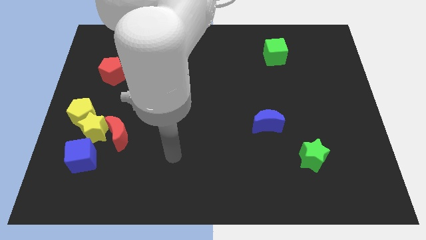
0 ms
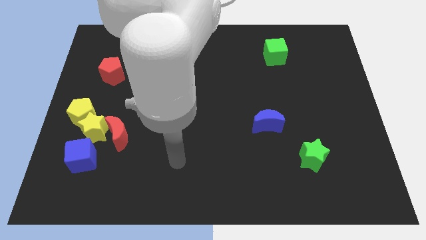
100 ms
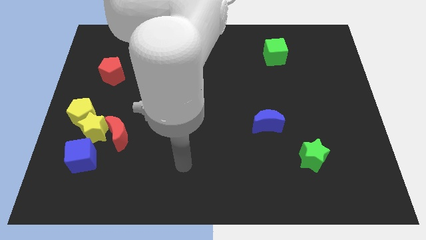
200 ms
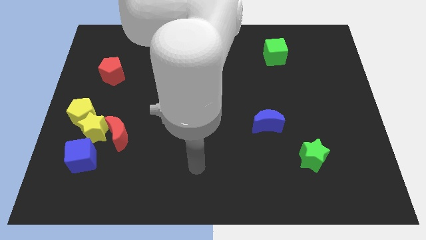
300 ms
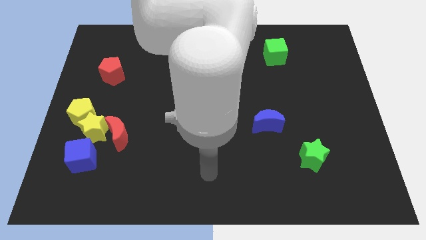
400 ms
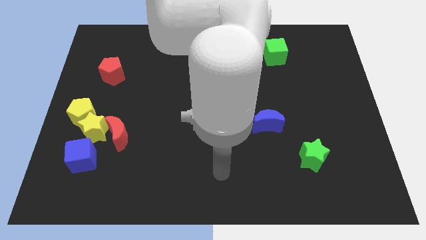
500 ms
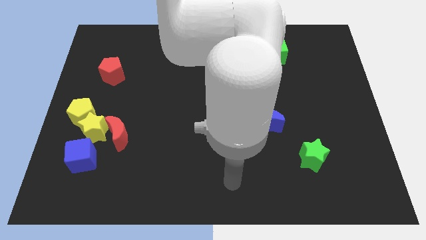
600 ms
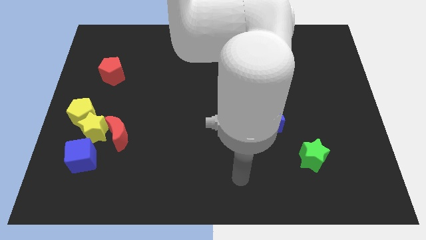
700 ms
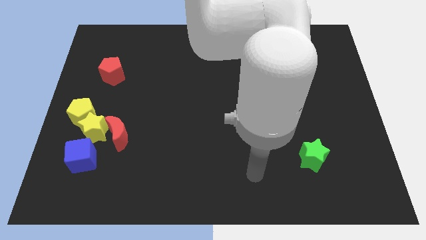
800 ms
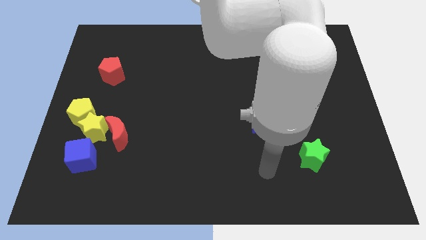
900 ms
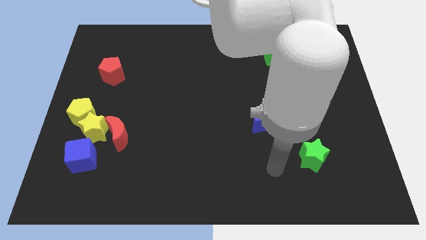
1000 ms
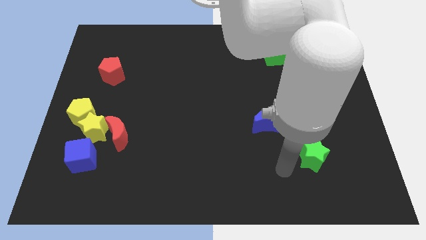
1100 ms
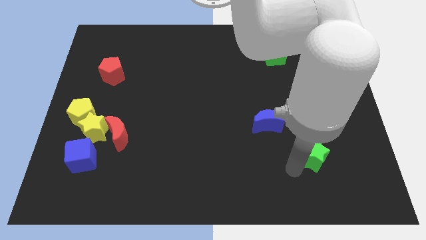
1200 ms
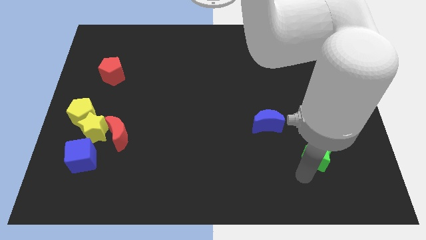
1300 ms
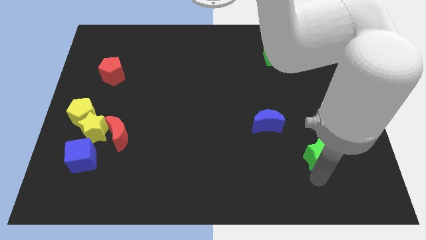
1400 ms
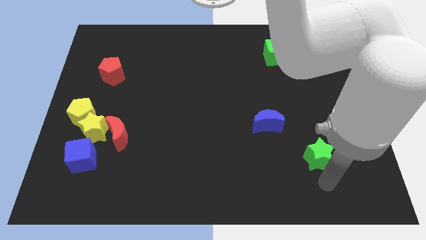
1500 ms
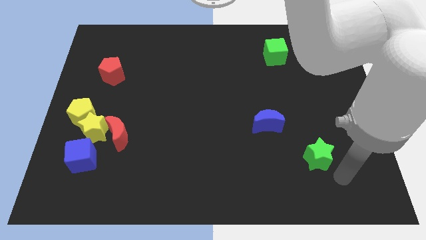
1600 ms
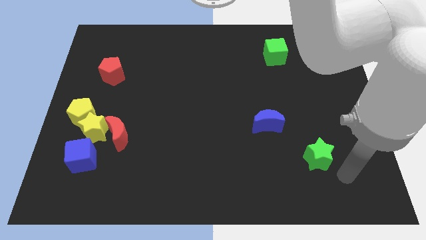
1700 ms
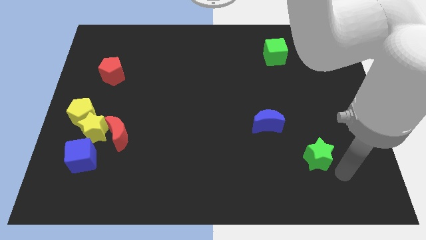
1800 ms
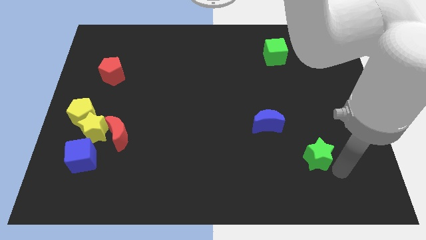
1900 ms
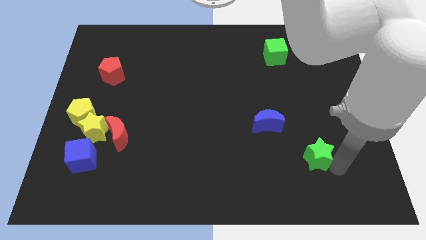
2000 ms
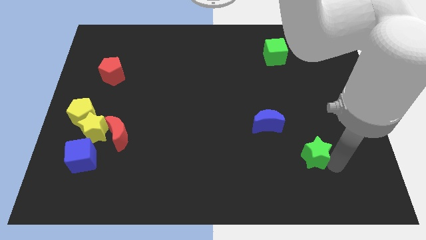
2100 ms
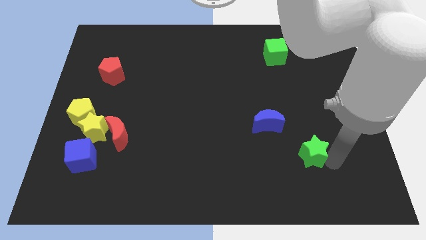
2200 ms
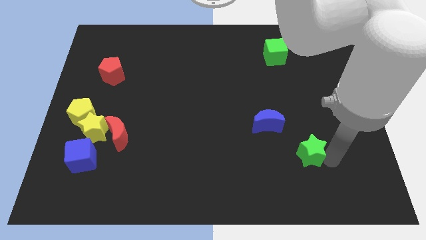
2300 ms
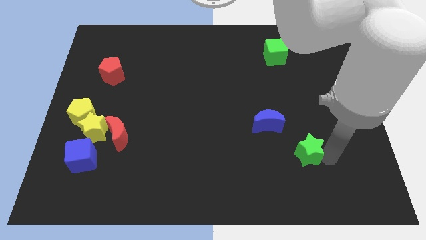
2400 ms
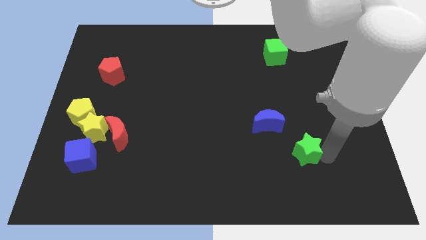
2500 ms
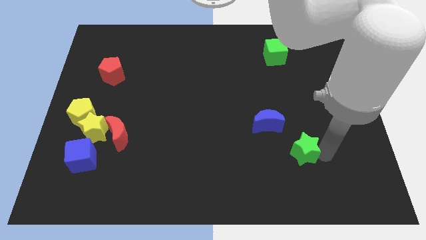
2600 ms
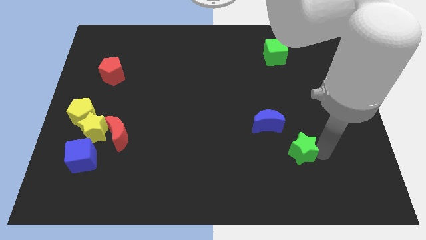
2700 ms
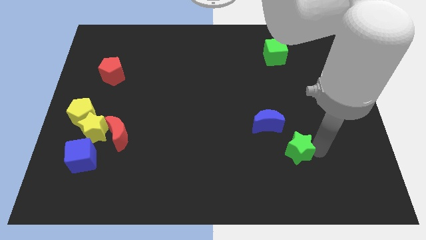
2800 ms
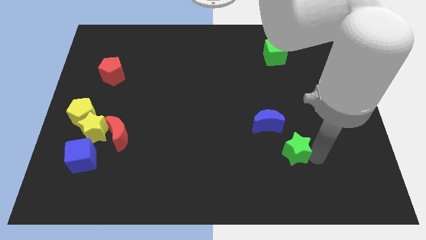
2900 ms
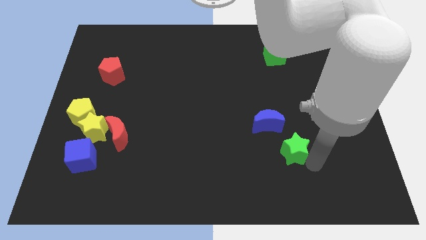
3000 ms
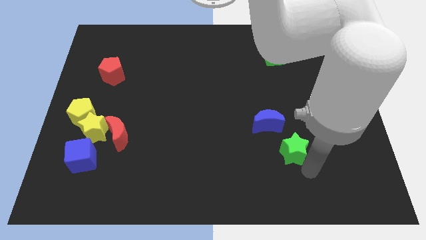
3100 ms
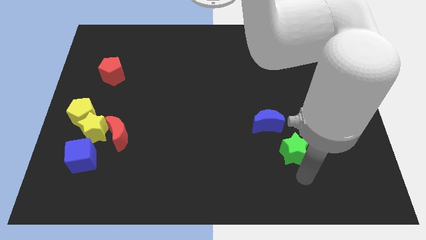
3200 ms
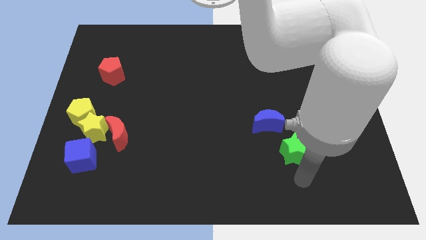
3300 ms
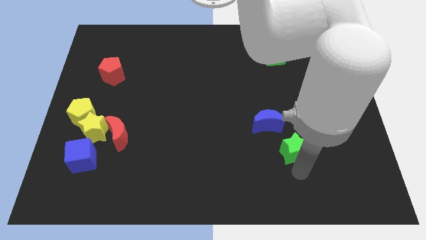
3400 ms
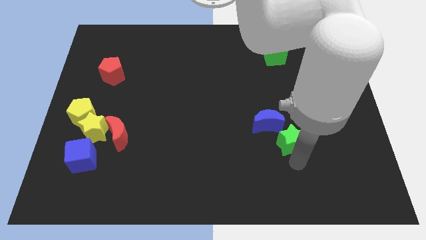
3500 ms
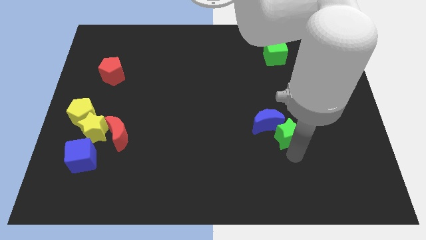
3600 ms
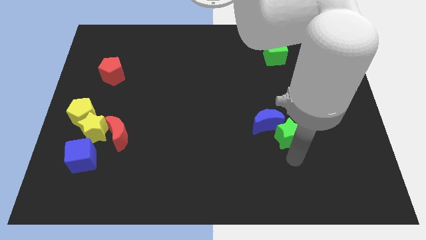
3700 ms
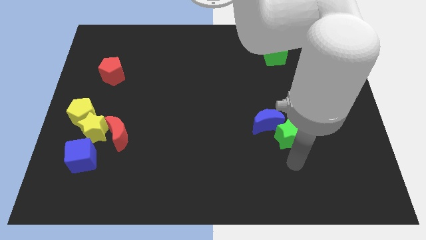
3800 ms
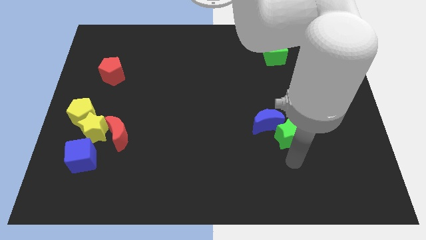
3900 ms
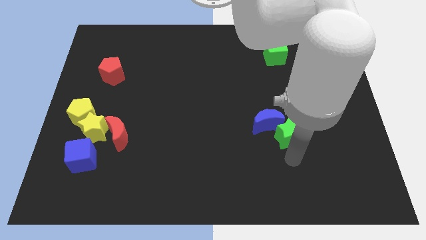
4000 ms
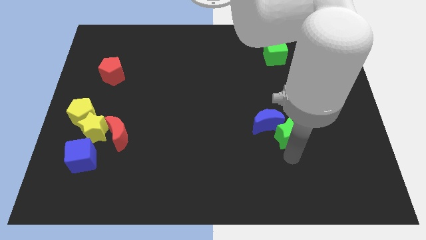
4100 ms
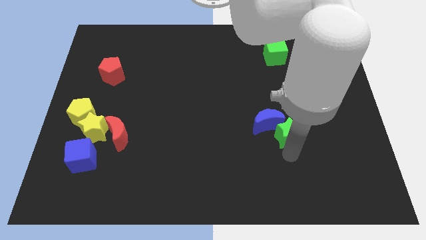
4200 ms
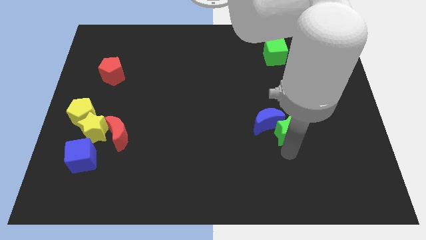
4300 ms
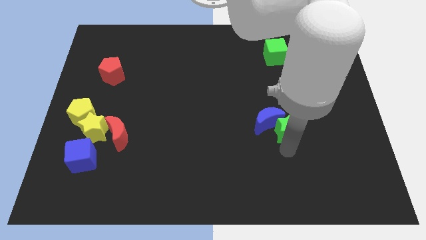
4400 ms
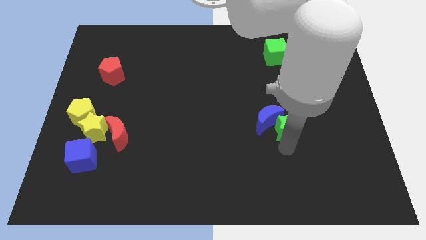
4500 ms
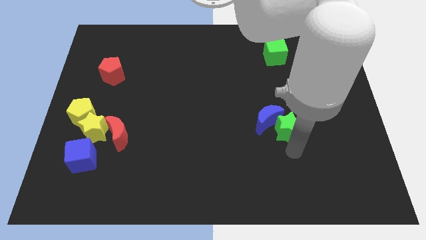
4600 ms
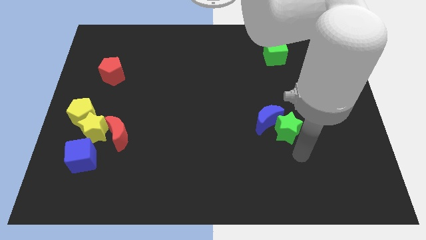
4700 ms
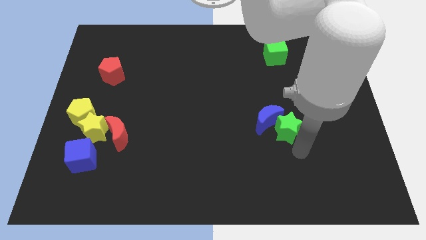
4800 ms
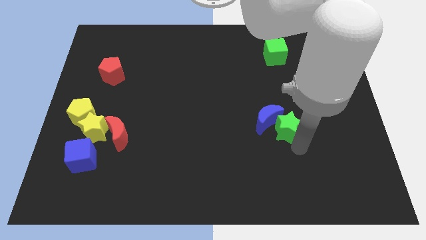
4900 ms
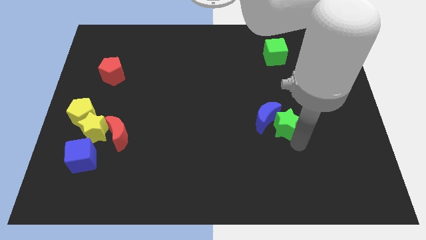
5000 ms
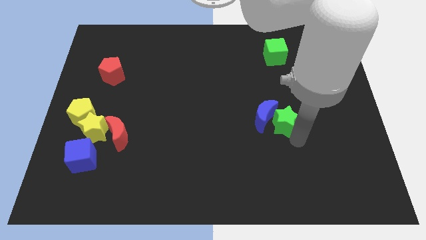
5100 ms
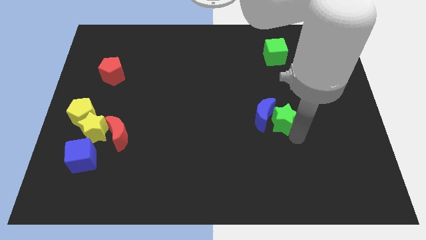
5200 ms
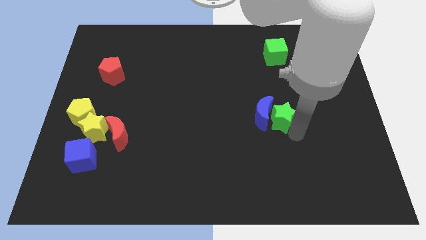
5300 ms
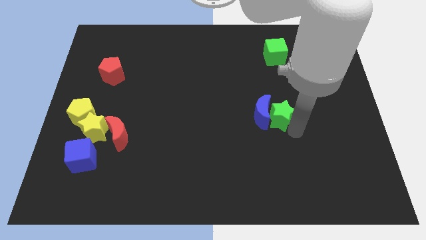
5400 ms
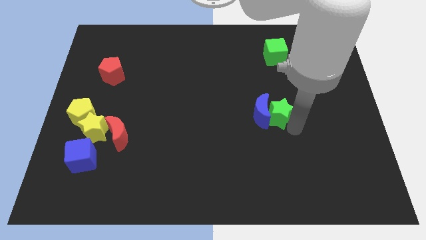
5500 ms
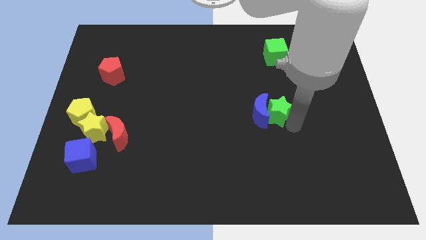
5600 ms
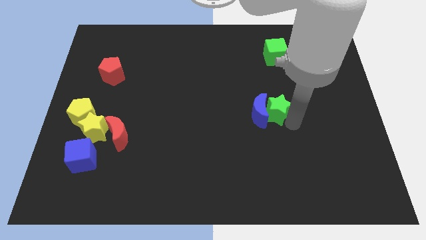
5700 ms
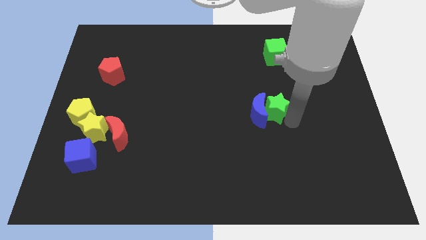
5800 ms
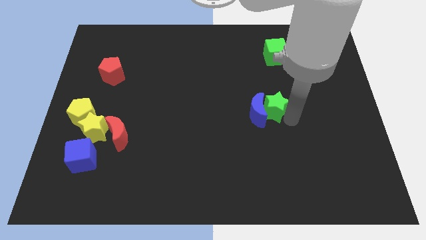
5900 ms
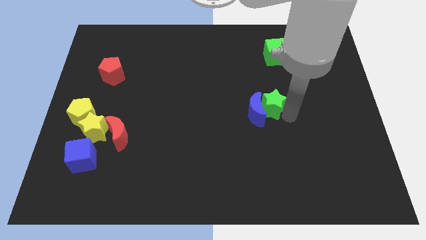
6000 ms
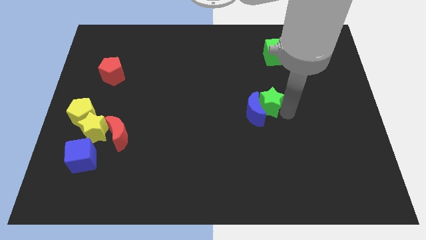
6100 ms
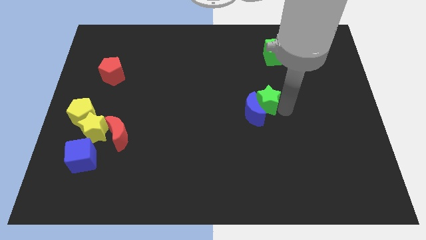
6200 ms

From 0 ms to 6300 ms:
move the green star above the blue moon

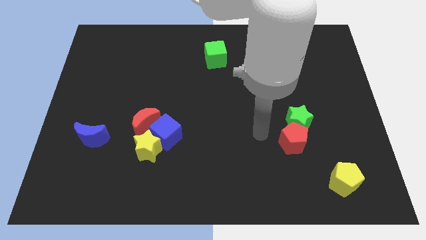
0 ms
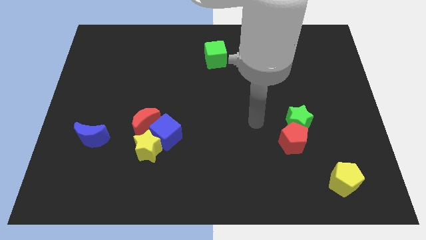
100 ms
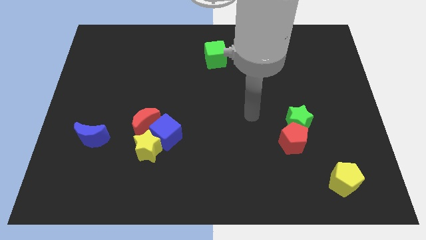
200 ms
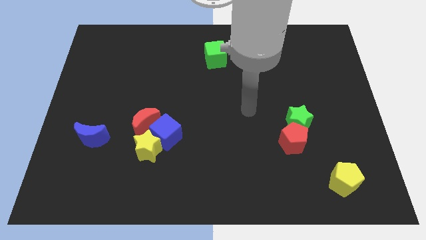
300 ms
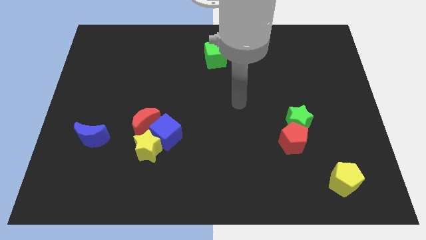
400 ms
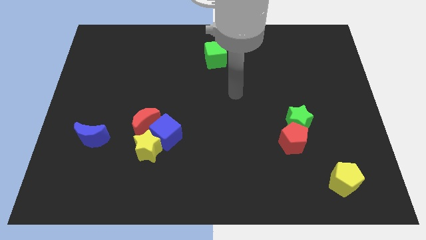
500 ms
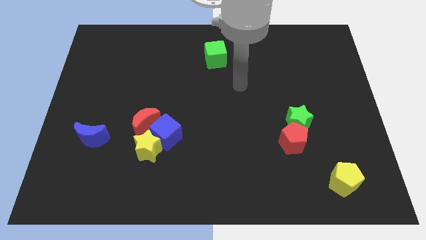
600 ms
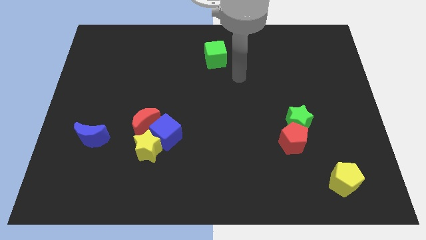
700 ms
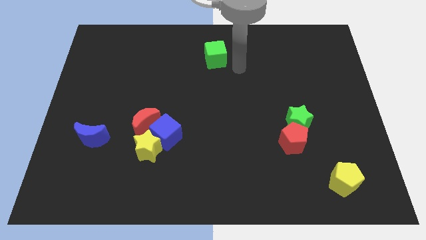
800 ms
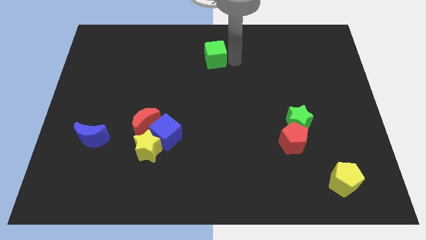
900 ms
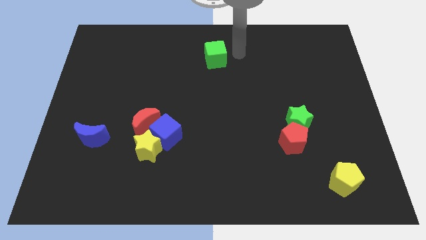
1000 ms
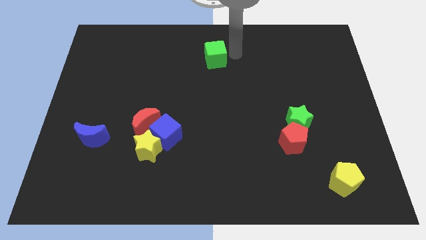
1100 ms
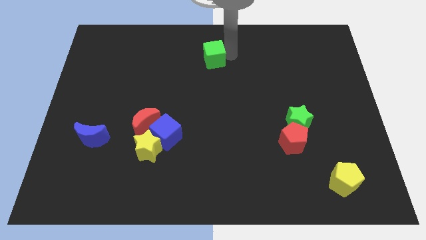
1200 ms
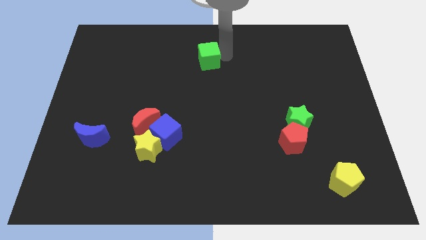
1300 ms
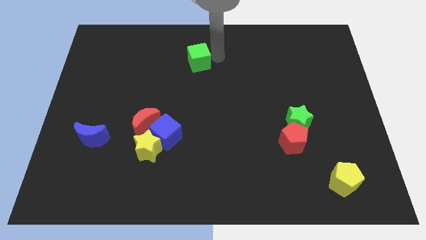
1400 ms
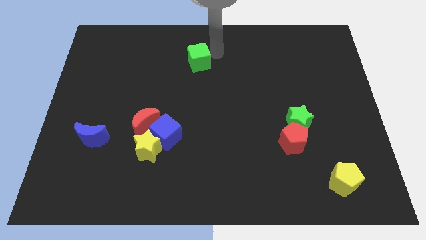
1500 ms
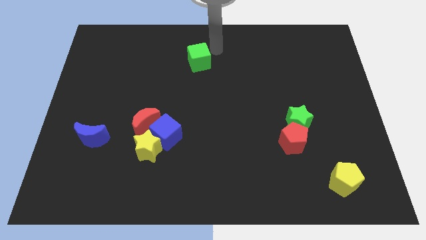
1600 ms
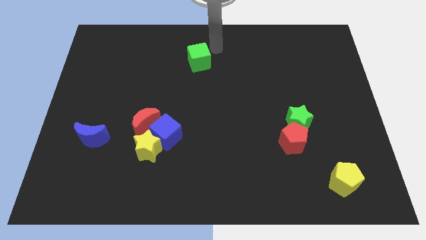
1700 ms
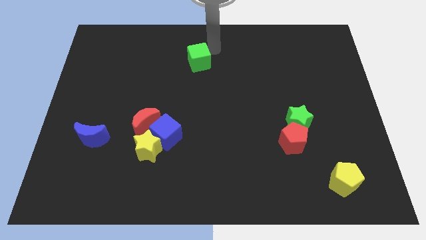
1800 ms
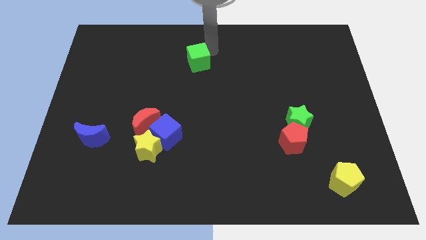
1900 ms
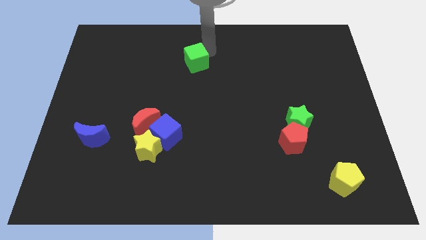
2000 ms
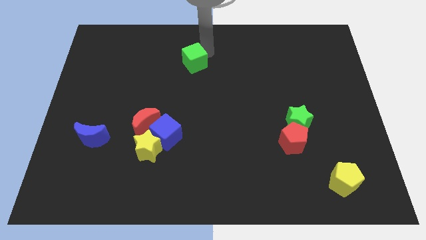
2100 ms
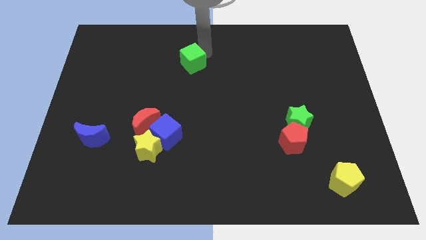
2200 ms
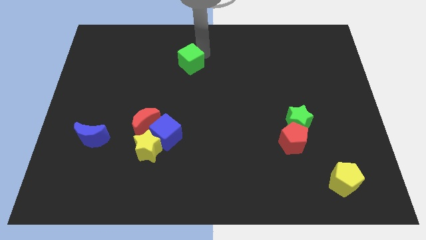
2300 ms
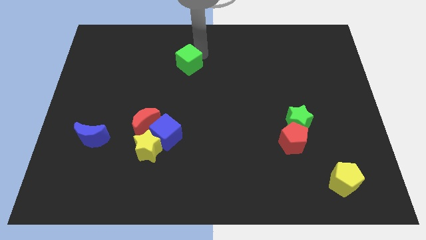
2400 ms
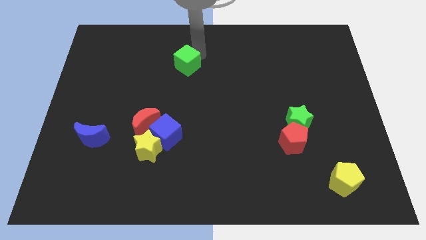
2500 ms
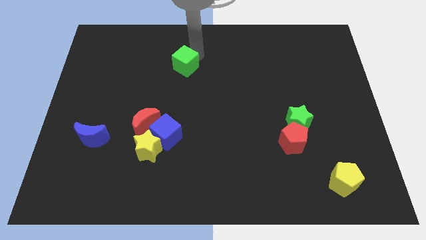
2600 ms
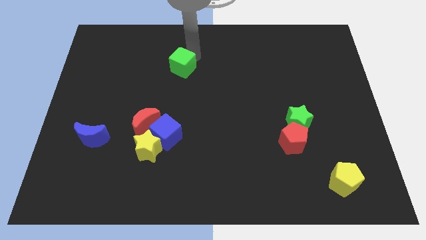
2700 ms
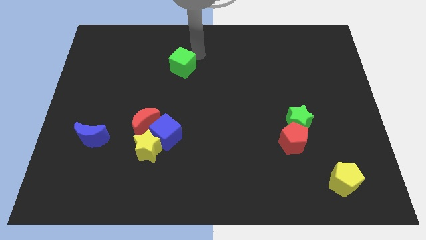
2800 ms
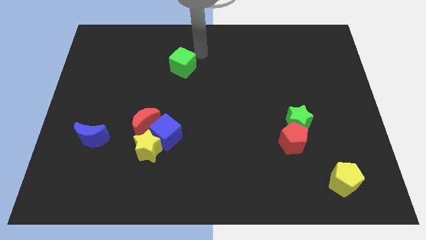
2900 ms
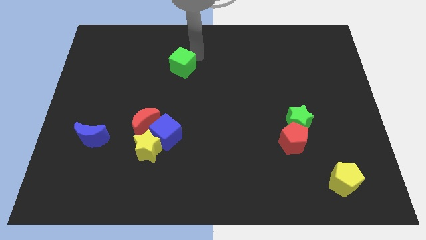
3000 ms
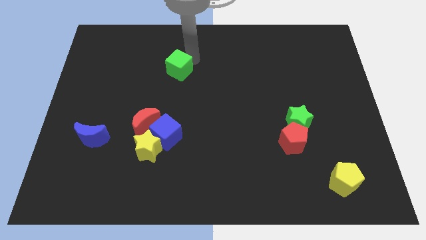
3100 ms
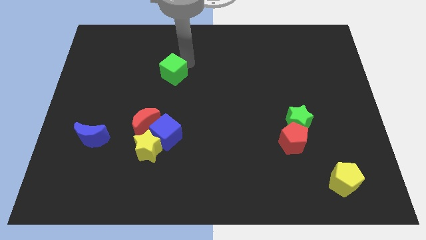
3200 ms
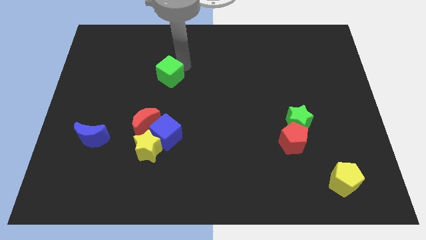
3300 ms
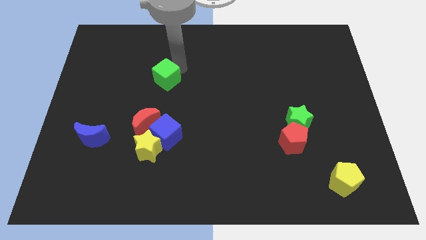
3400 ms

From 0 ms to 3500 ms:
move the green cube to the top of the red moon
